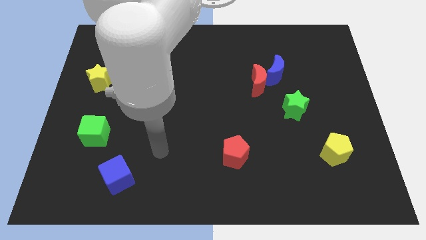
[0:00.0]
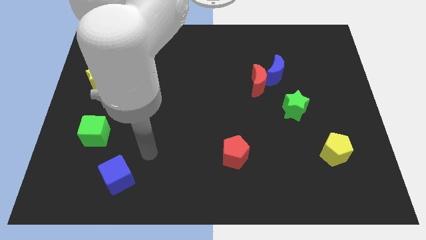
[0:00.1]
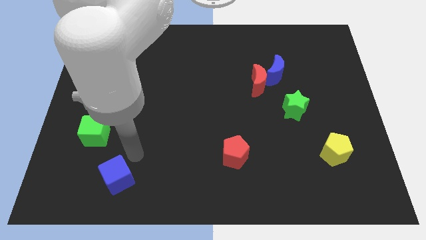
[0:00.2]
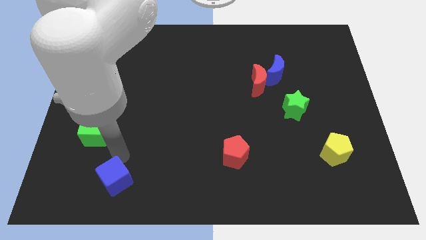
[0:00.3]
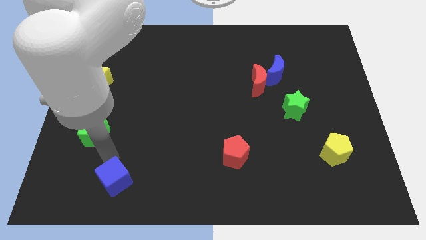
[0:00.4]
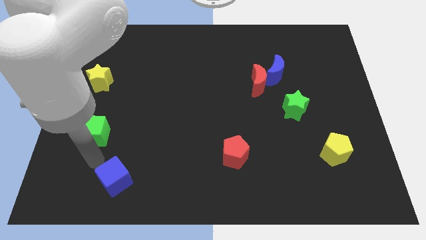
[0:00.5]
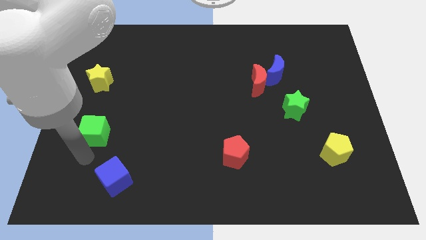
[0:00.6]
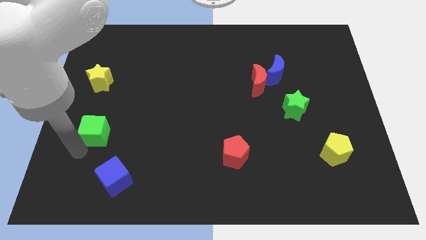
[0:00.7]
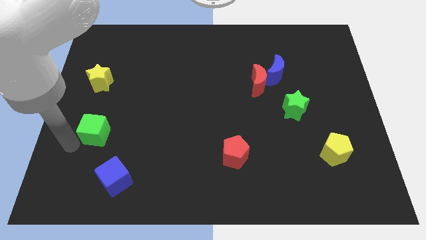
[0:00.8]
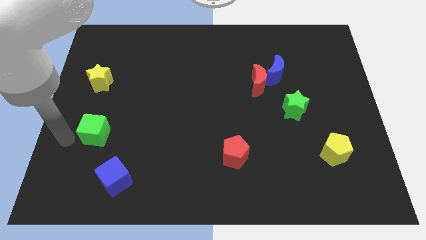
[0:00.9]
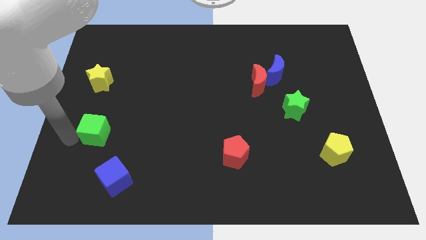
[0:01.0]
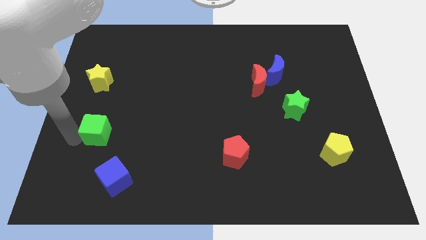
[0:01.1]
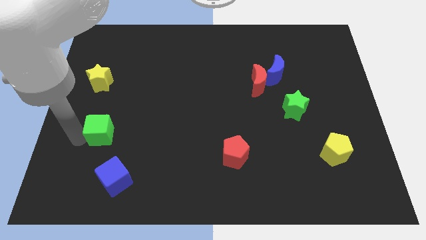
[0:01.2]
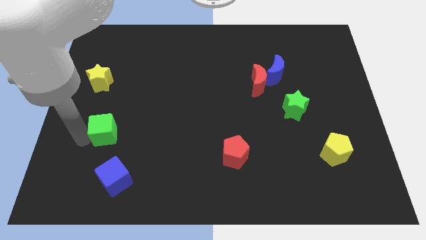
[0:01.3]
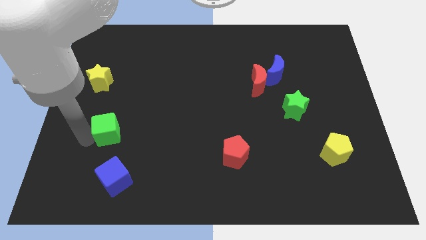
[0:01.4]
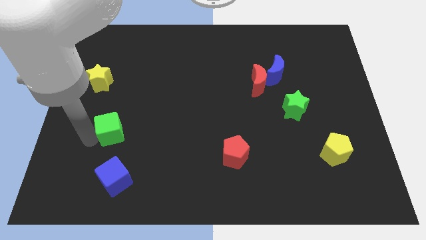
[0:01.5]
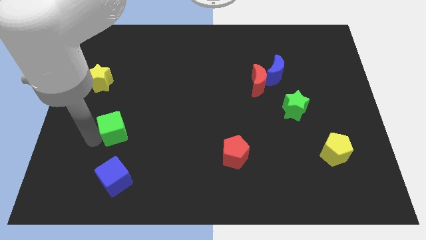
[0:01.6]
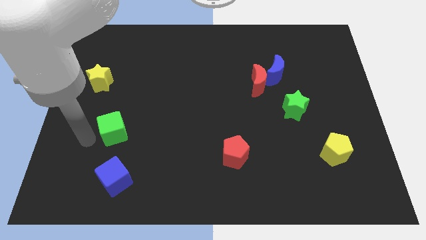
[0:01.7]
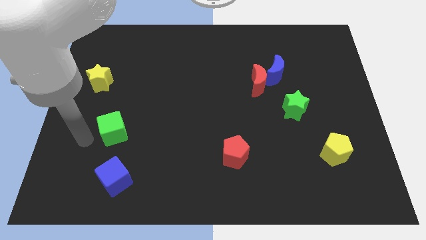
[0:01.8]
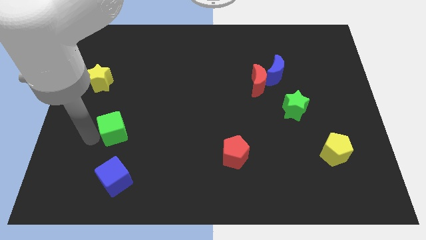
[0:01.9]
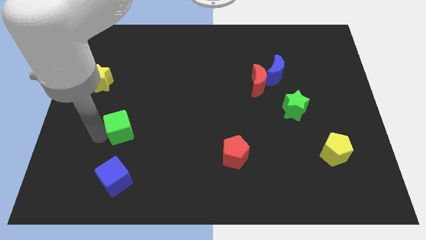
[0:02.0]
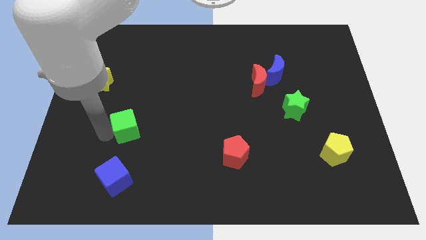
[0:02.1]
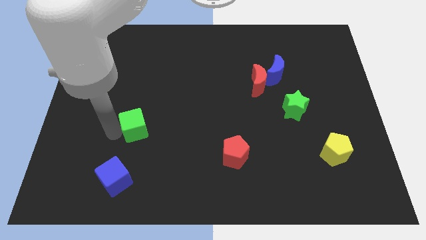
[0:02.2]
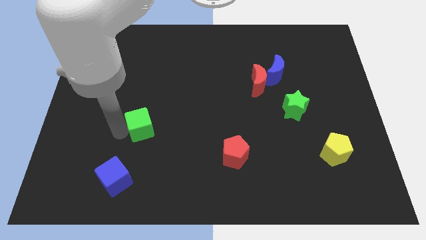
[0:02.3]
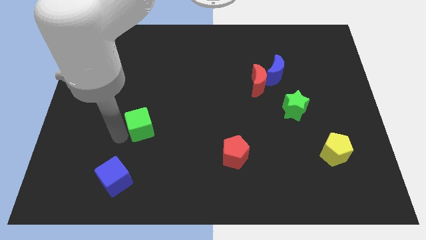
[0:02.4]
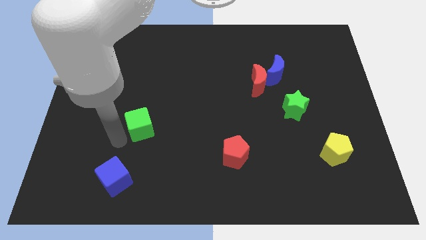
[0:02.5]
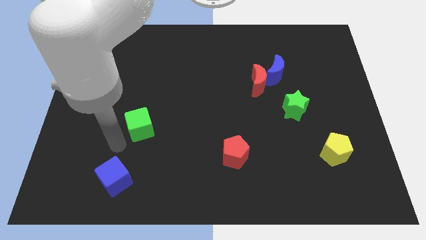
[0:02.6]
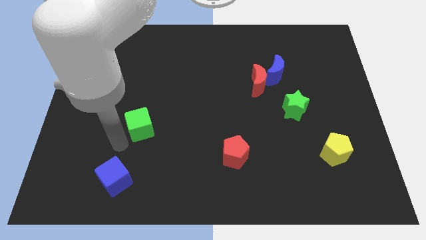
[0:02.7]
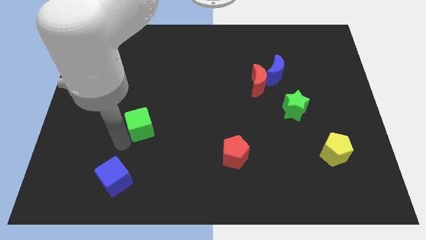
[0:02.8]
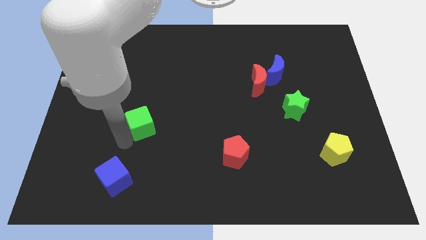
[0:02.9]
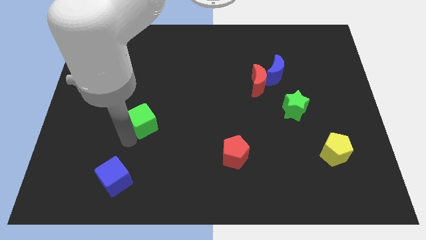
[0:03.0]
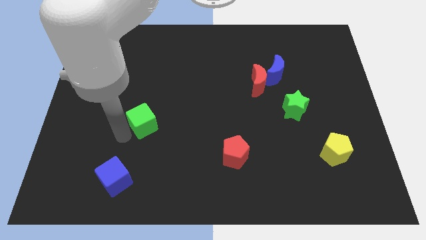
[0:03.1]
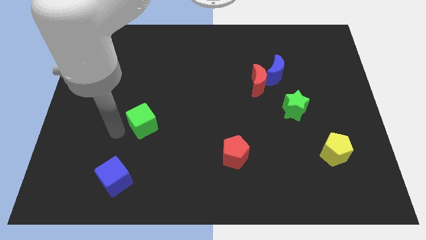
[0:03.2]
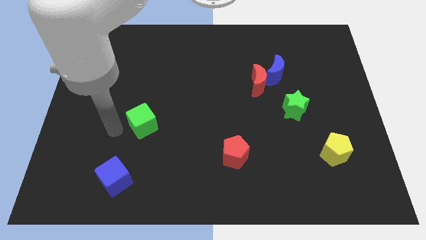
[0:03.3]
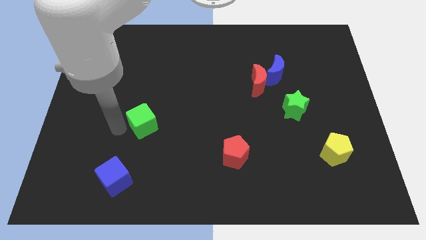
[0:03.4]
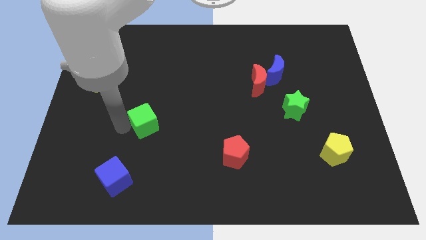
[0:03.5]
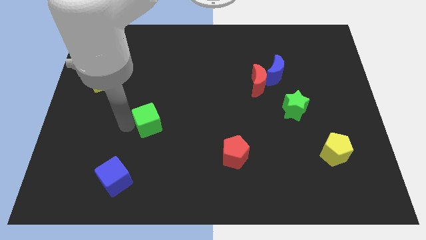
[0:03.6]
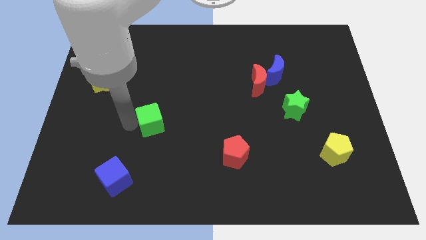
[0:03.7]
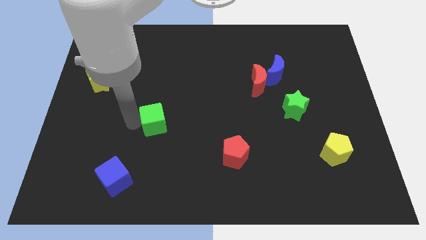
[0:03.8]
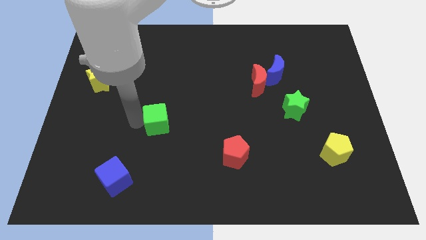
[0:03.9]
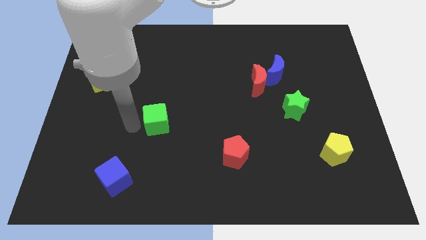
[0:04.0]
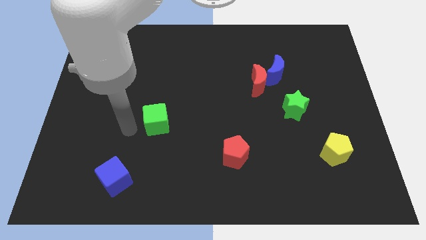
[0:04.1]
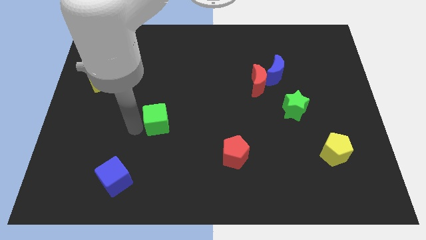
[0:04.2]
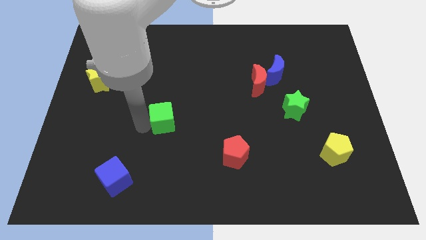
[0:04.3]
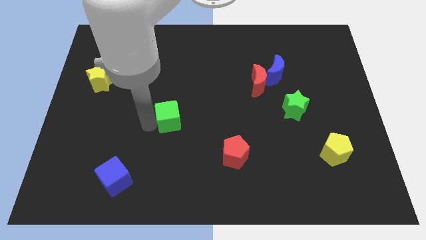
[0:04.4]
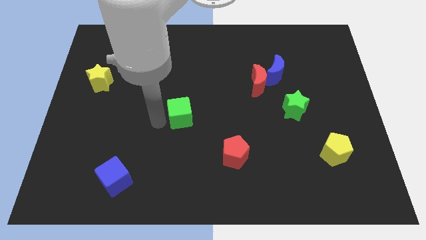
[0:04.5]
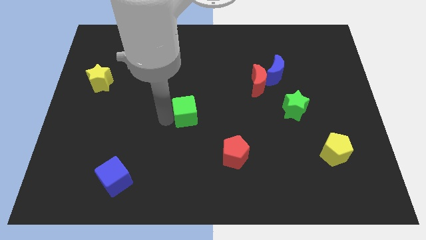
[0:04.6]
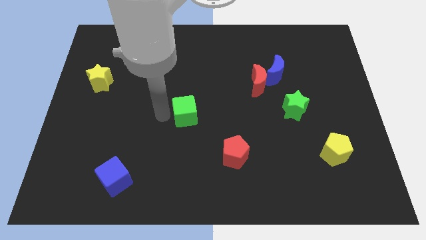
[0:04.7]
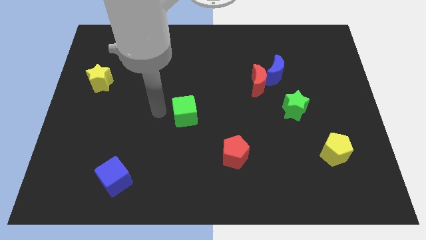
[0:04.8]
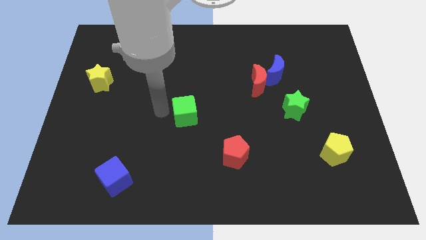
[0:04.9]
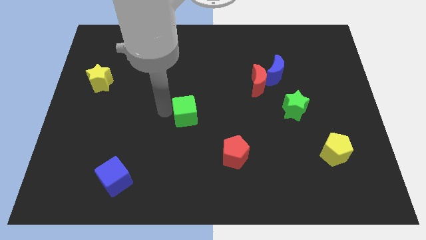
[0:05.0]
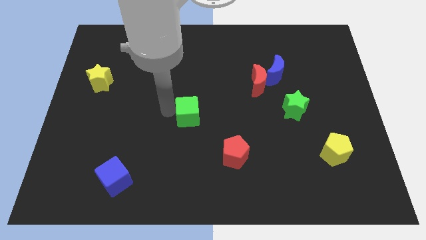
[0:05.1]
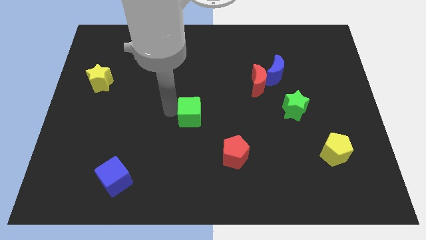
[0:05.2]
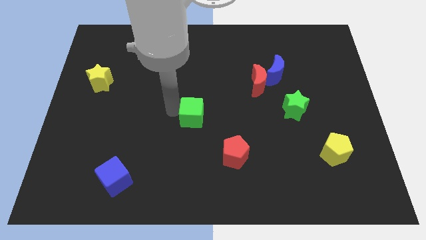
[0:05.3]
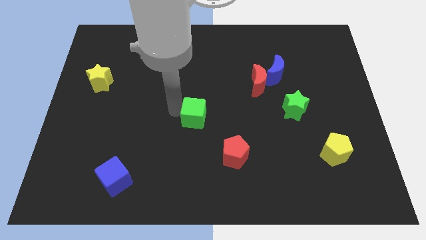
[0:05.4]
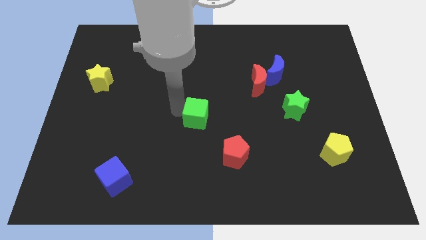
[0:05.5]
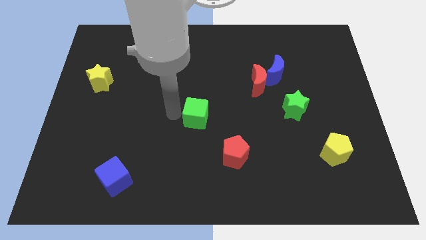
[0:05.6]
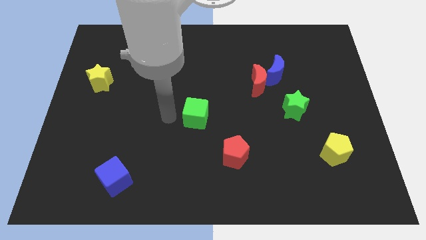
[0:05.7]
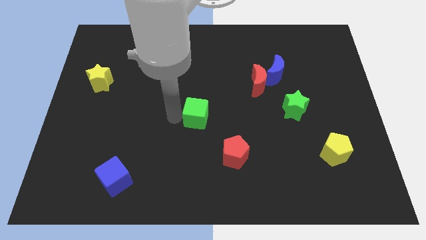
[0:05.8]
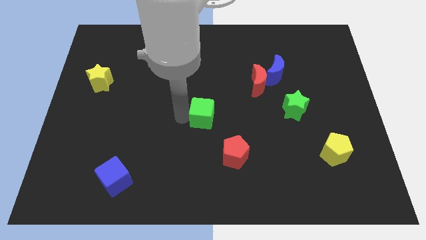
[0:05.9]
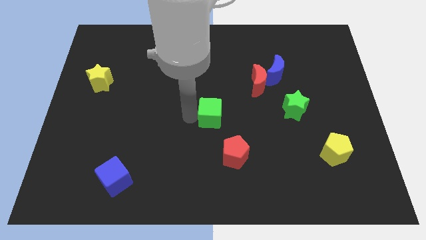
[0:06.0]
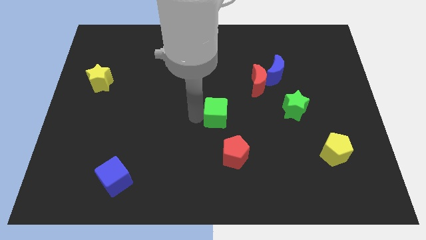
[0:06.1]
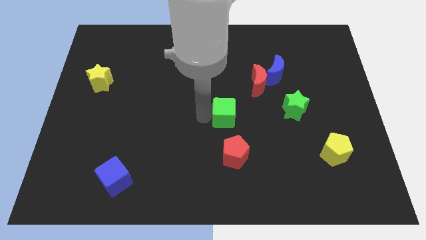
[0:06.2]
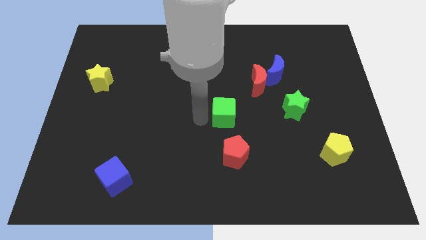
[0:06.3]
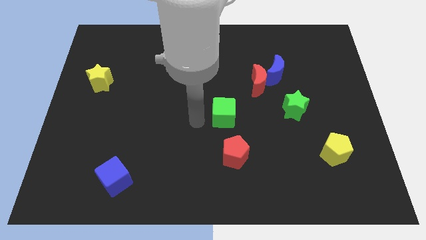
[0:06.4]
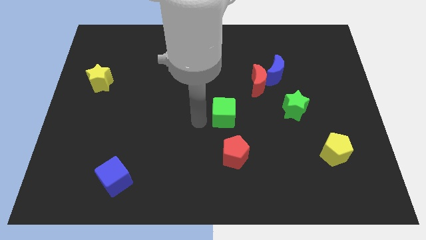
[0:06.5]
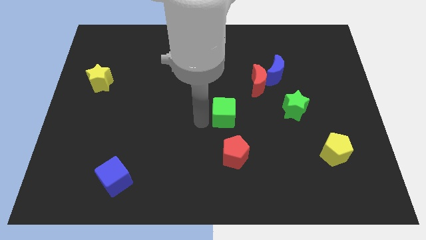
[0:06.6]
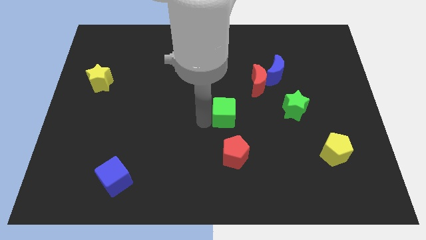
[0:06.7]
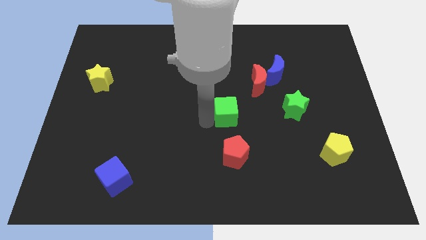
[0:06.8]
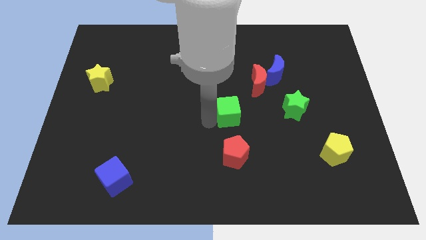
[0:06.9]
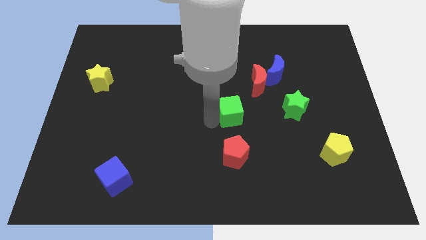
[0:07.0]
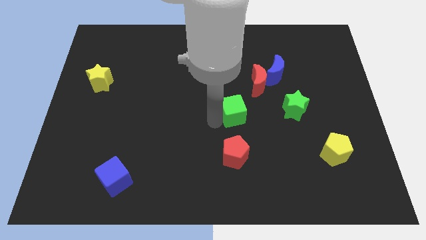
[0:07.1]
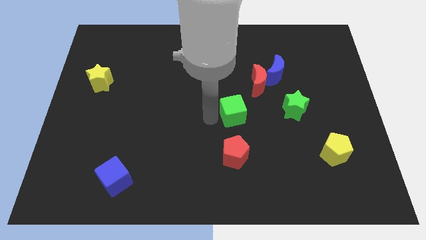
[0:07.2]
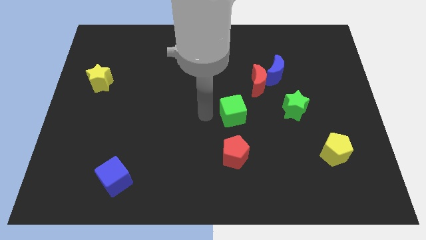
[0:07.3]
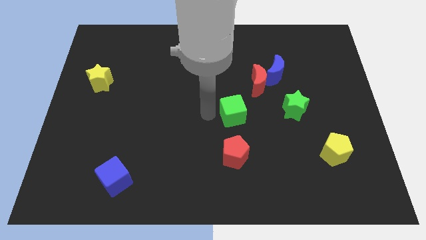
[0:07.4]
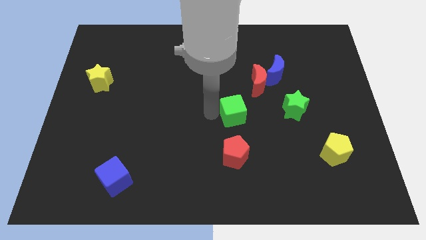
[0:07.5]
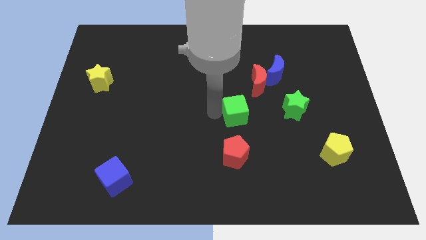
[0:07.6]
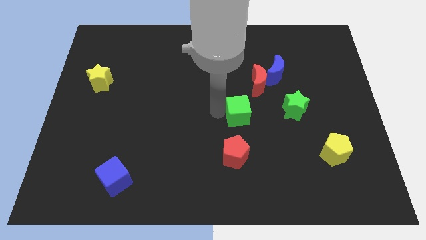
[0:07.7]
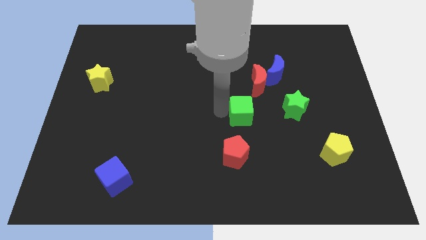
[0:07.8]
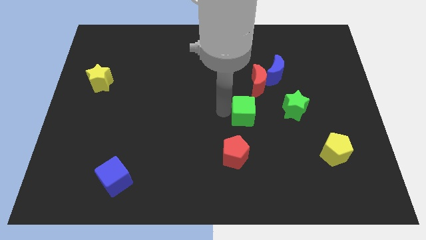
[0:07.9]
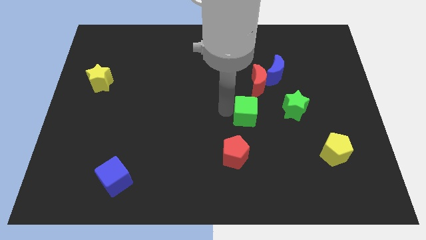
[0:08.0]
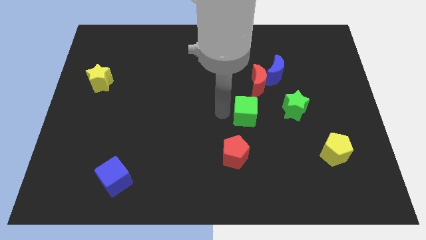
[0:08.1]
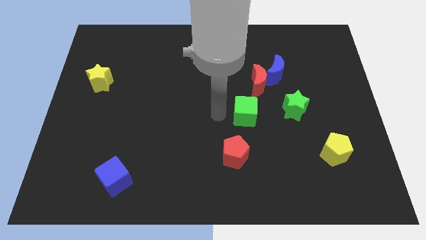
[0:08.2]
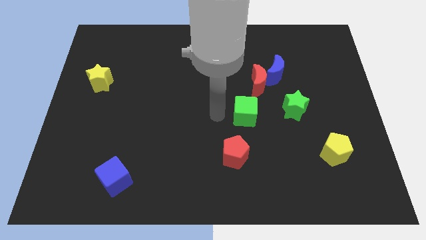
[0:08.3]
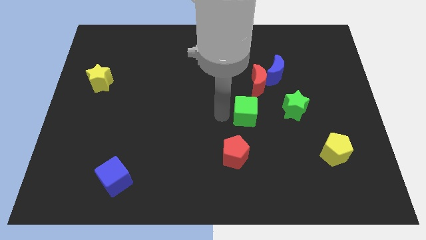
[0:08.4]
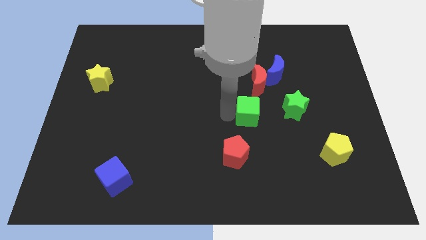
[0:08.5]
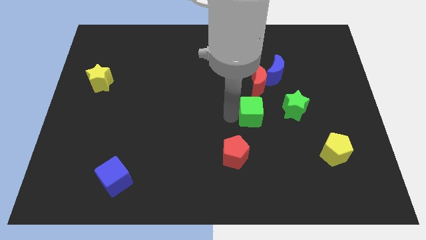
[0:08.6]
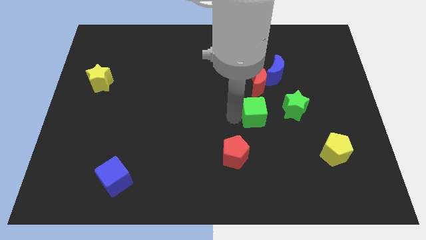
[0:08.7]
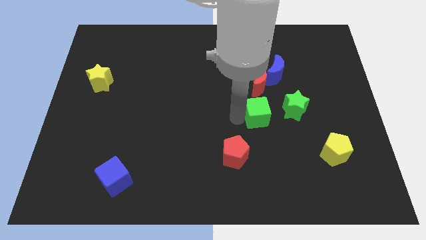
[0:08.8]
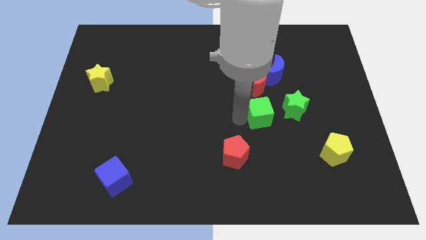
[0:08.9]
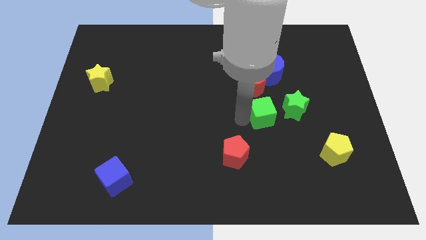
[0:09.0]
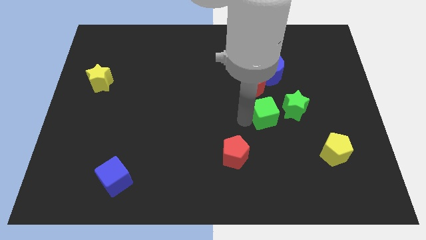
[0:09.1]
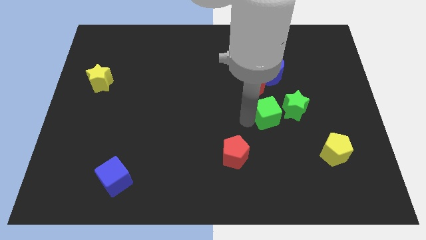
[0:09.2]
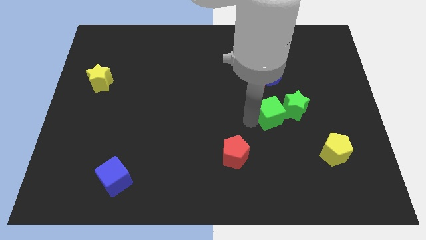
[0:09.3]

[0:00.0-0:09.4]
move the green cube to the green star
